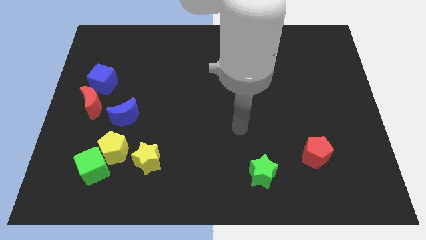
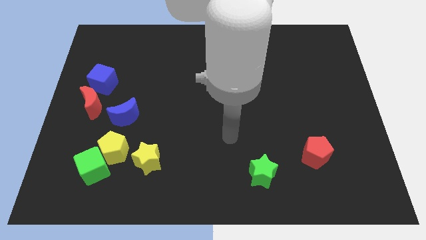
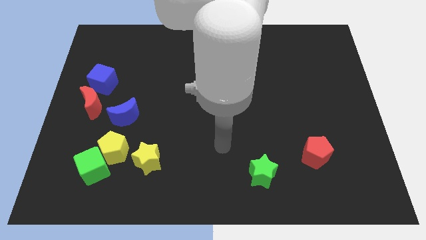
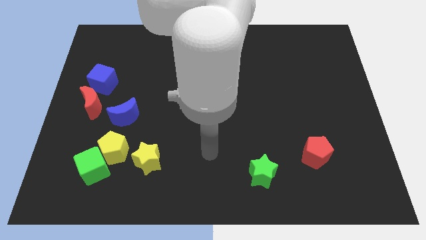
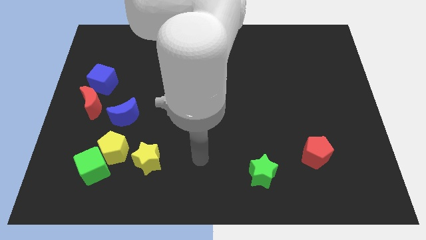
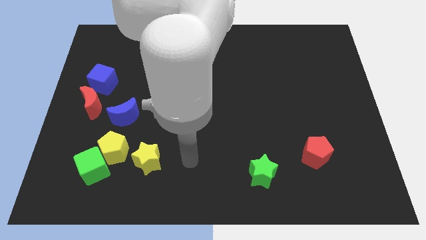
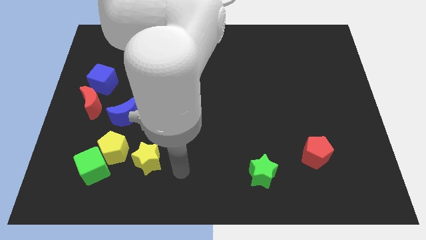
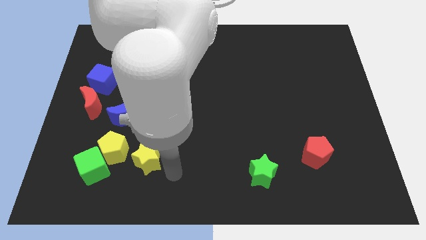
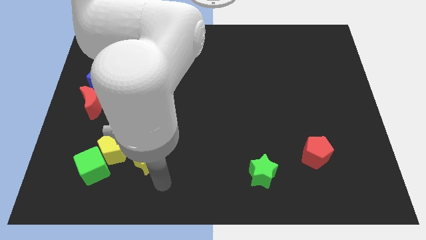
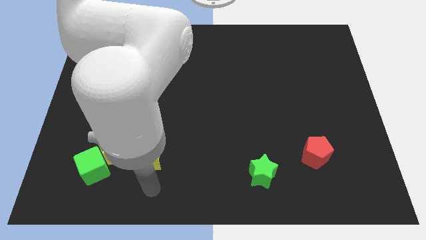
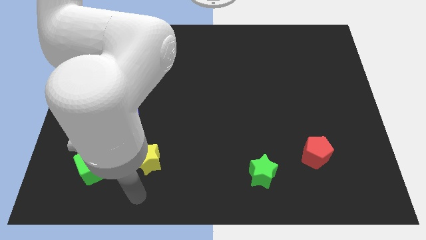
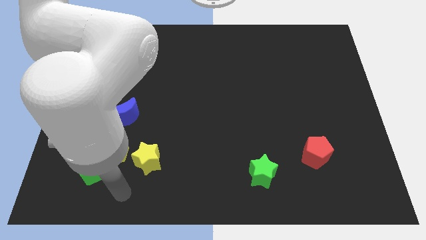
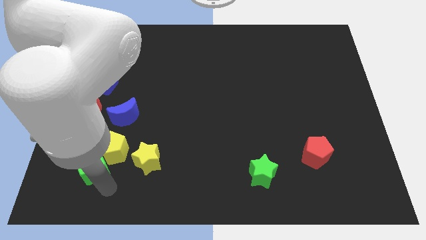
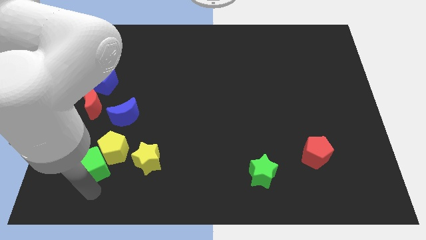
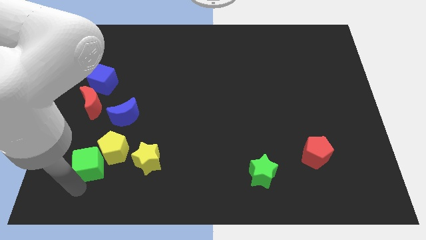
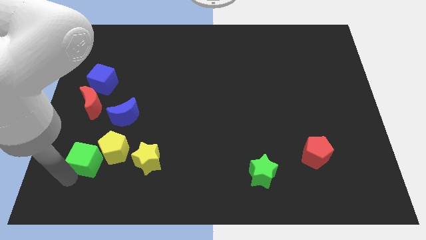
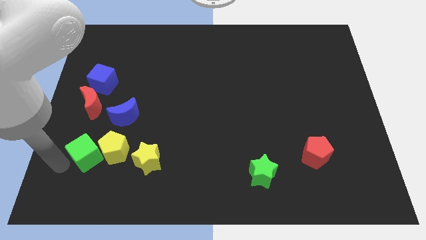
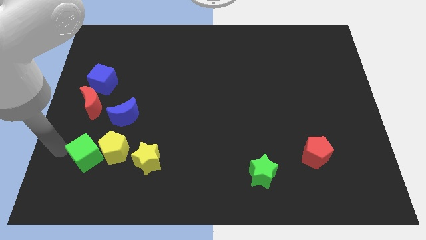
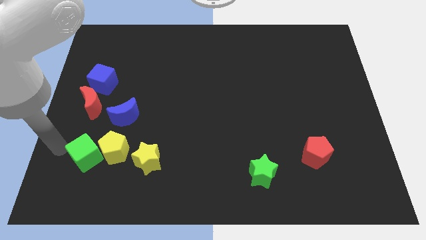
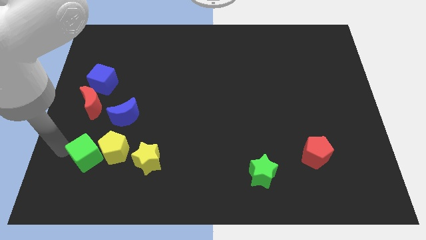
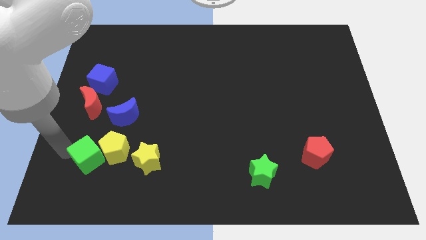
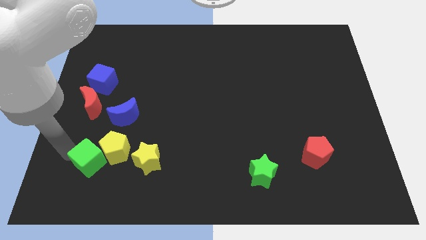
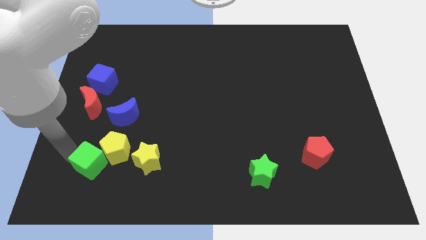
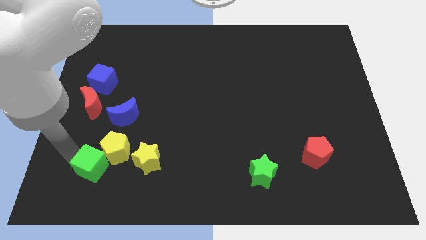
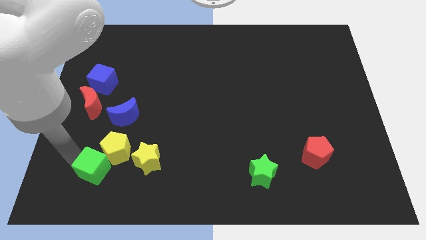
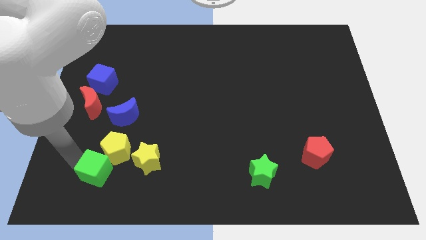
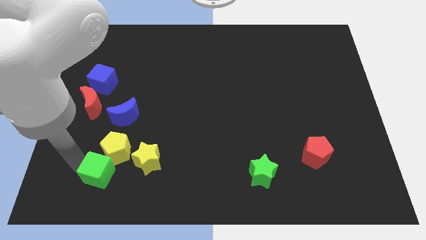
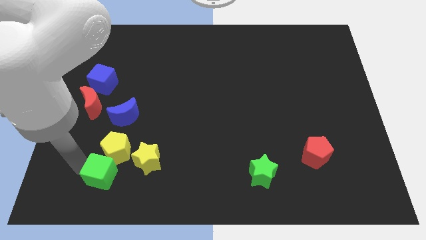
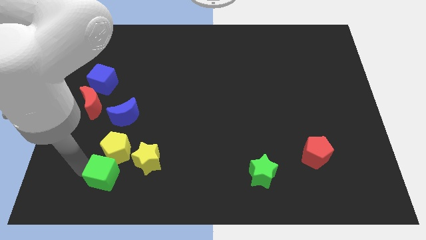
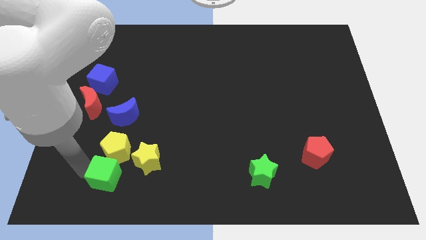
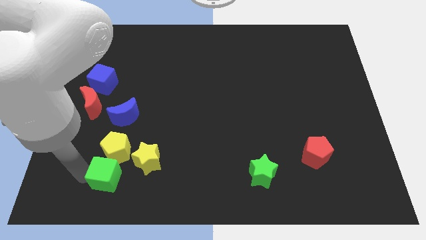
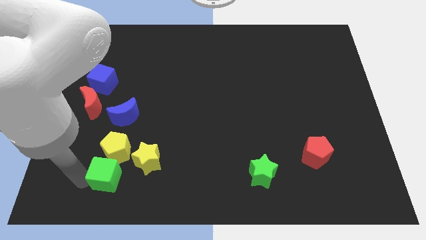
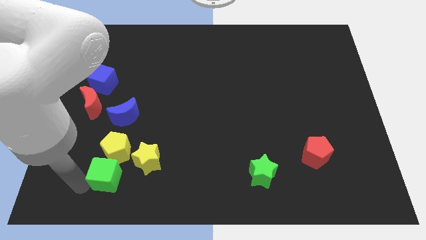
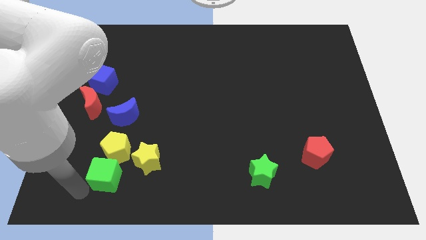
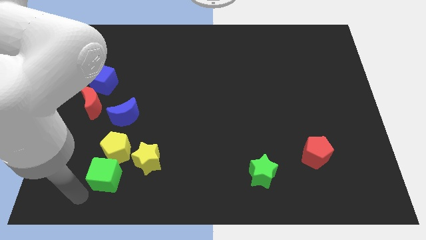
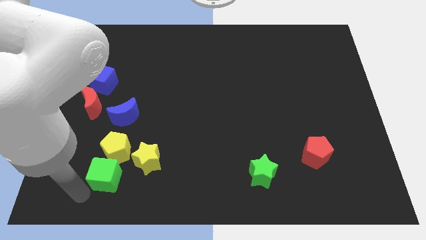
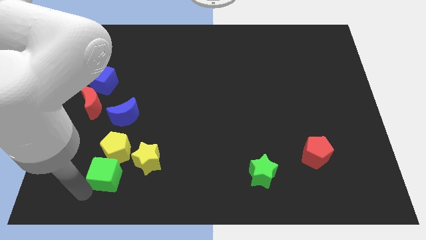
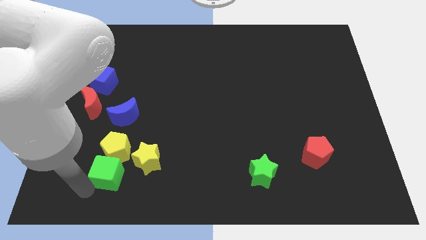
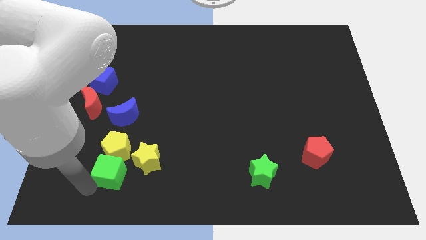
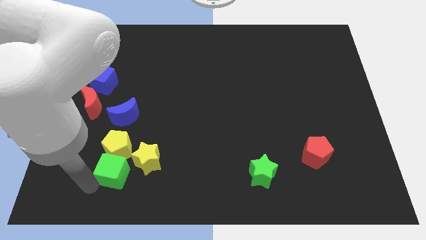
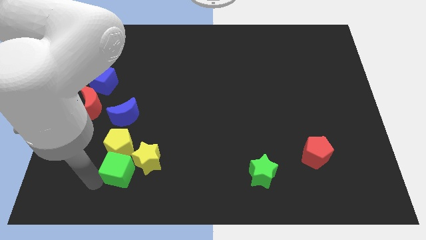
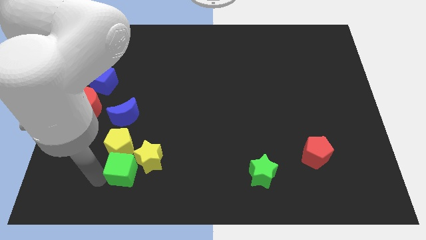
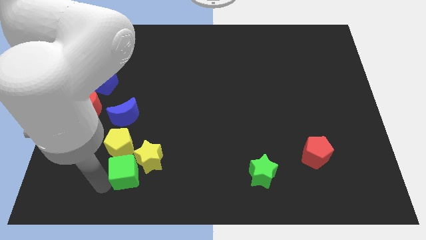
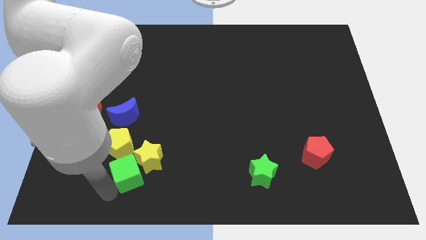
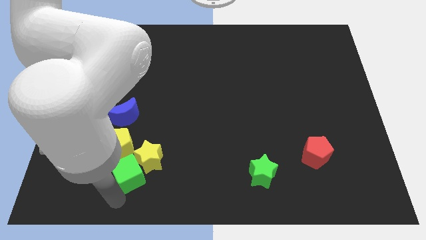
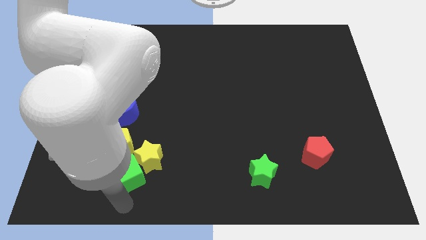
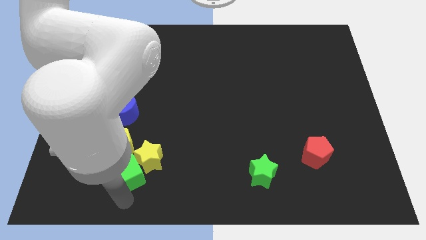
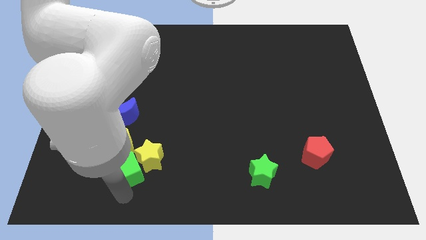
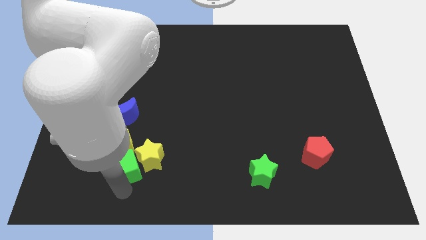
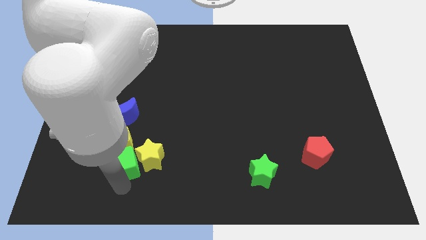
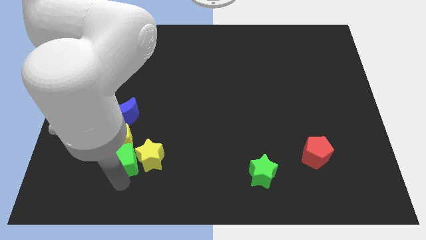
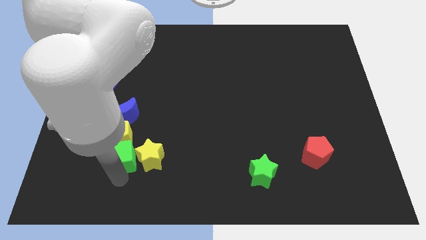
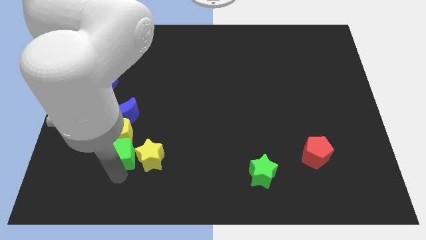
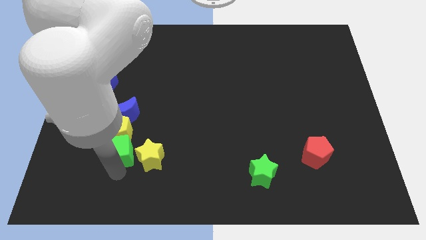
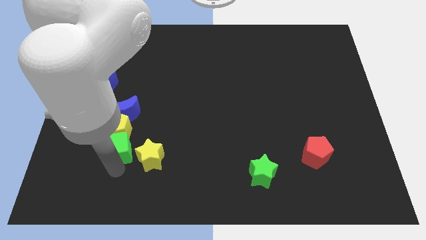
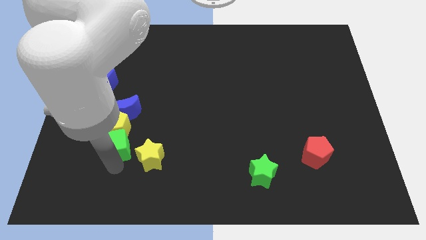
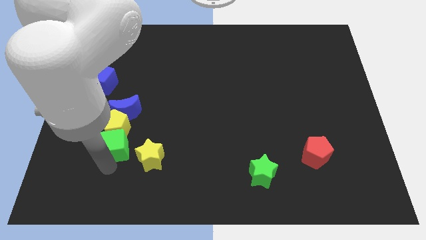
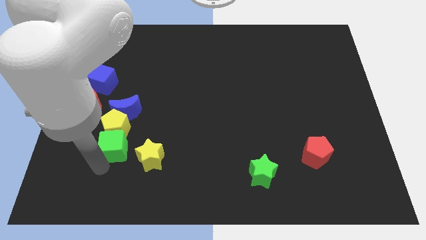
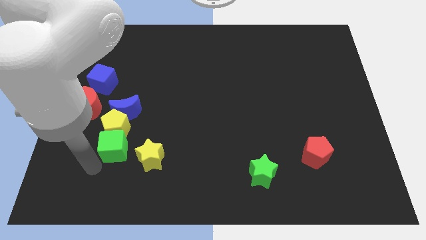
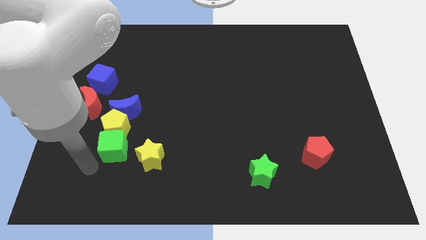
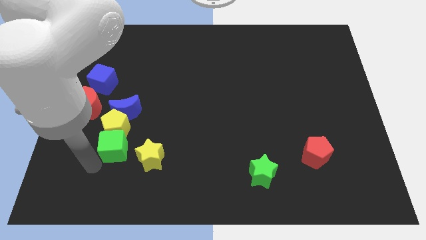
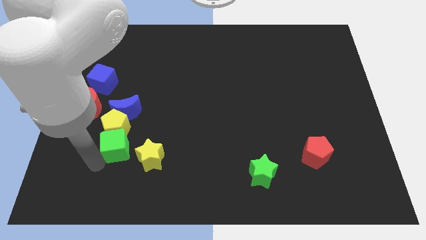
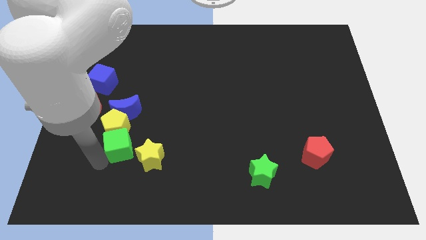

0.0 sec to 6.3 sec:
slightly move the green cube upwards and right diagonally

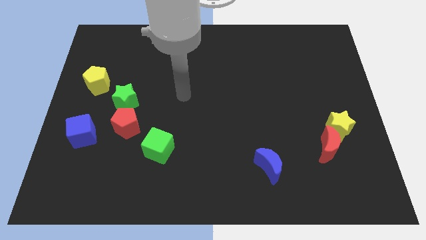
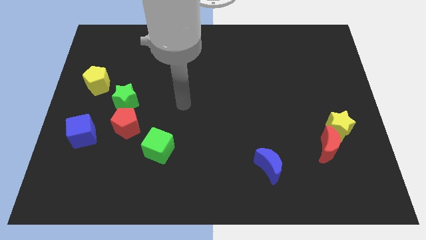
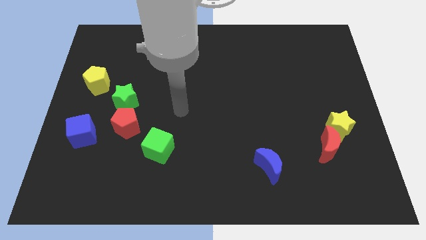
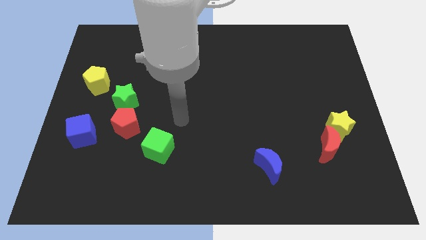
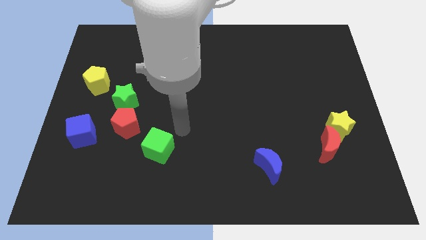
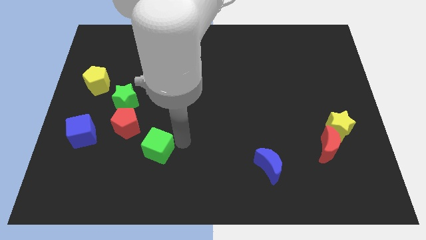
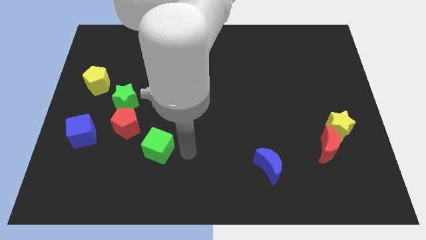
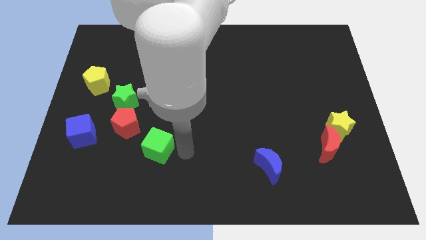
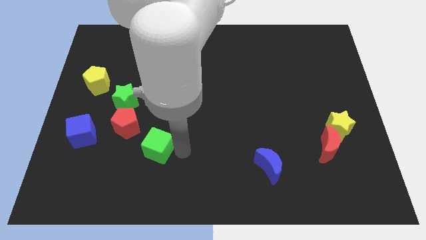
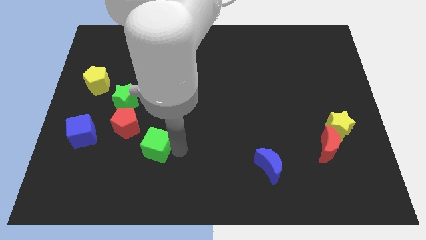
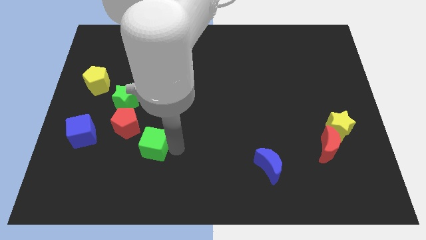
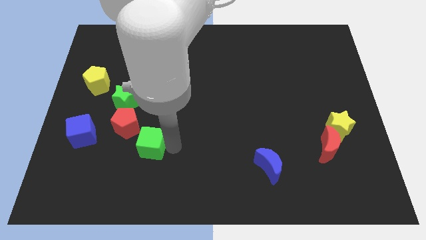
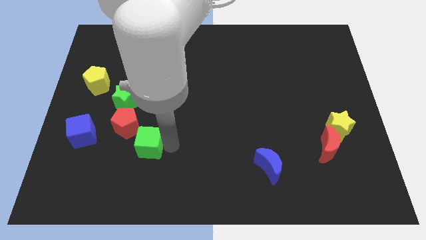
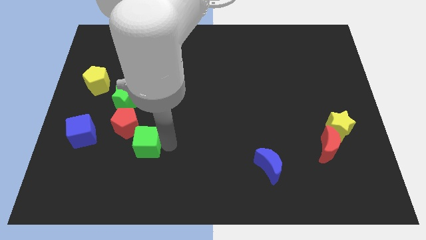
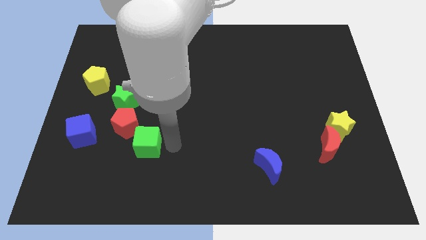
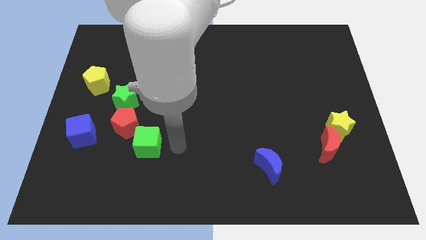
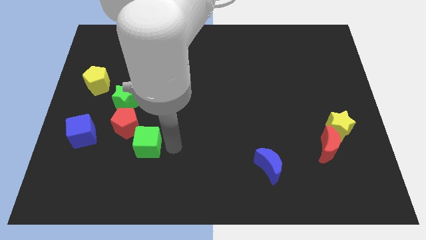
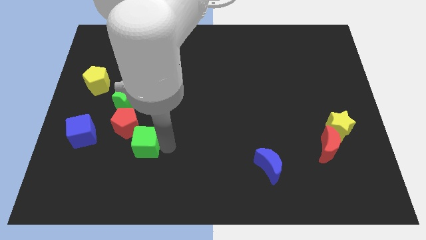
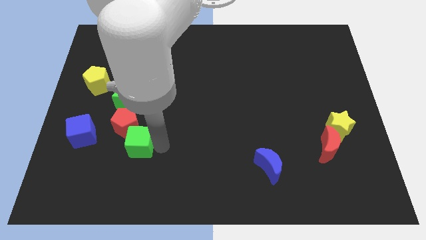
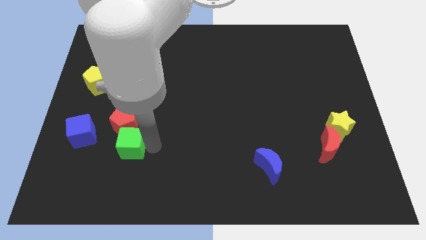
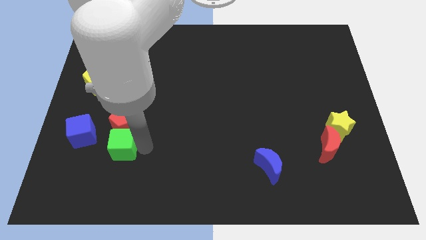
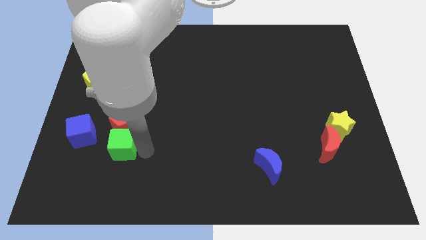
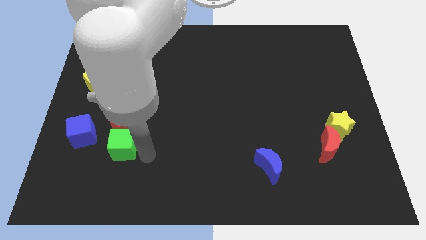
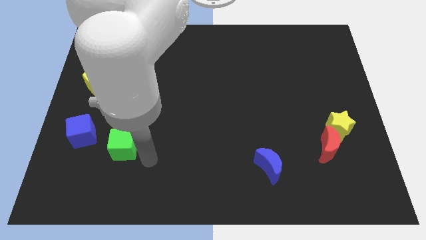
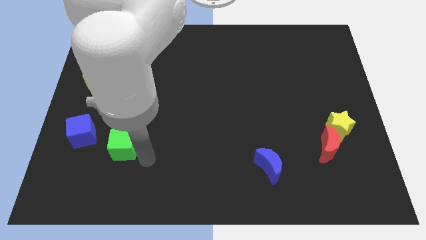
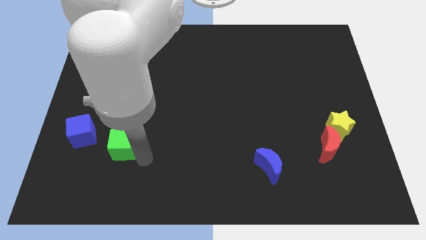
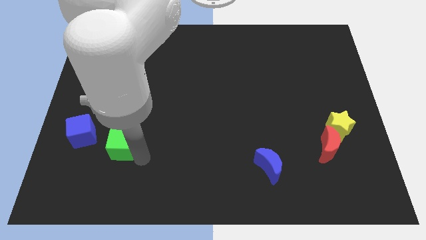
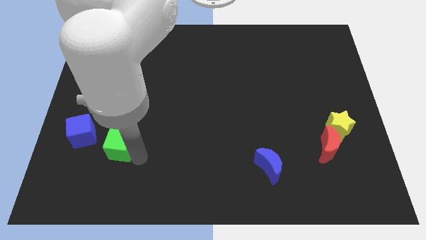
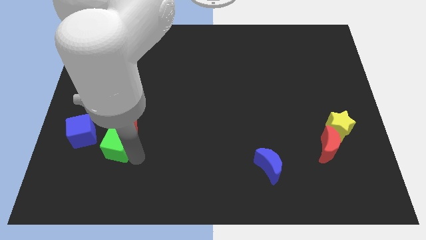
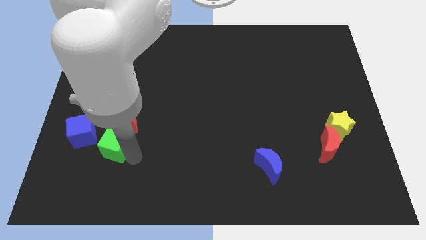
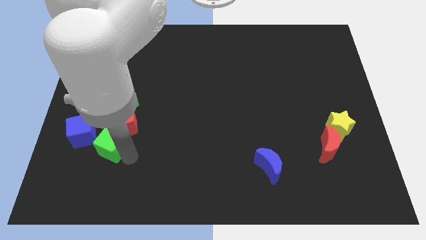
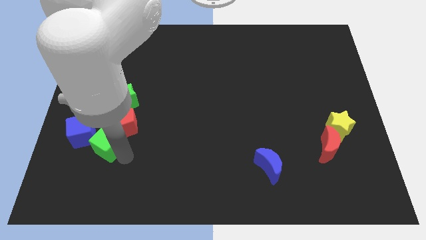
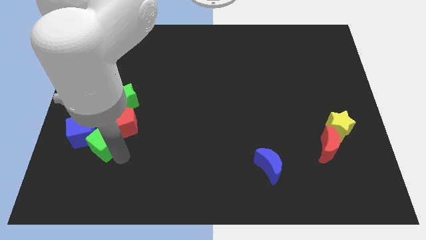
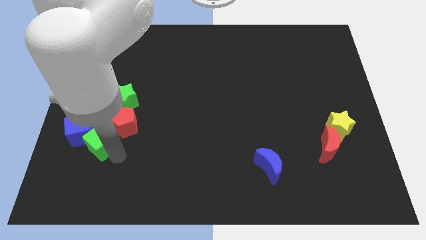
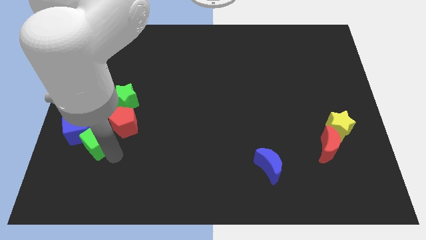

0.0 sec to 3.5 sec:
slightly slide the green cube upwards and then left
